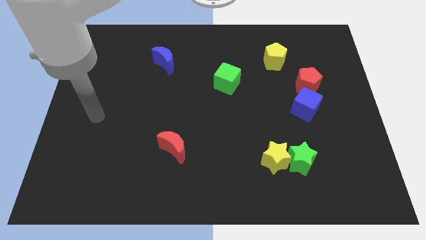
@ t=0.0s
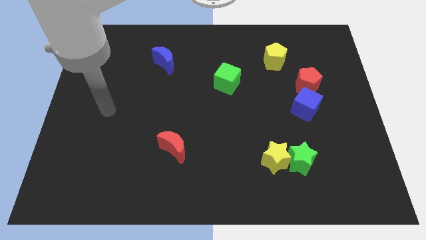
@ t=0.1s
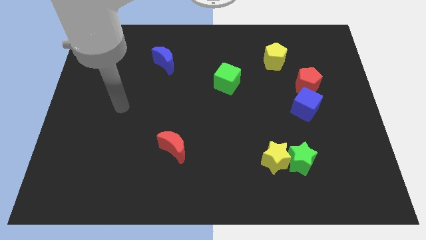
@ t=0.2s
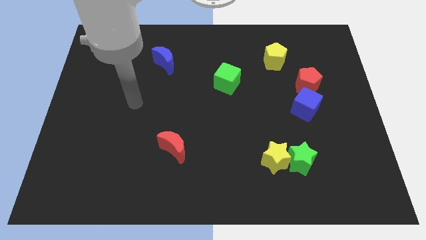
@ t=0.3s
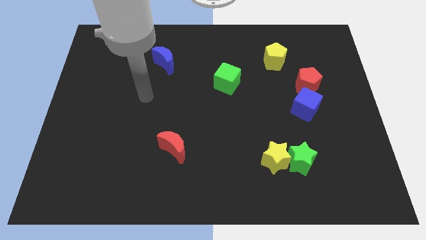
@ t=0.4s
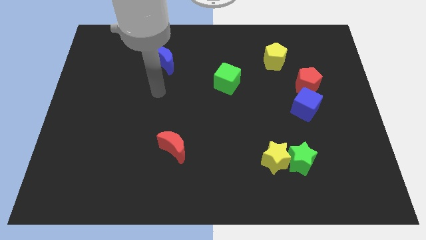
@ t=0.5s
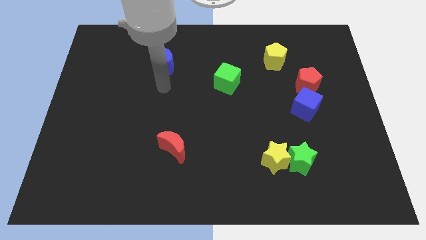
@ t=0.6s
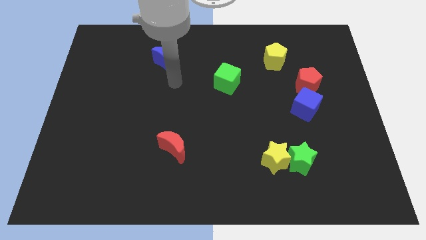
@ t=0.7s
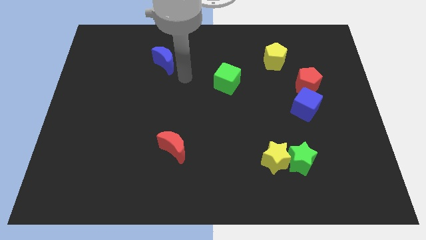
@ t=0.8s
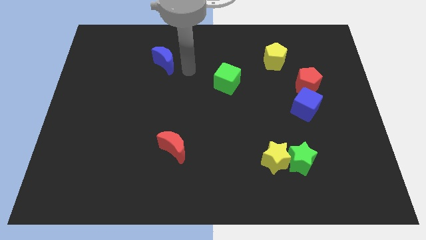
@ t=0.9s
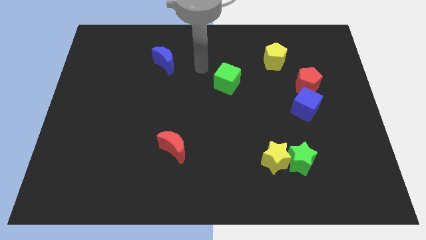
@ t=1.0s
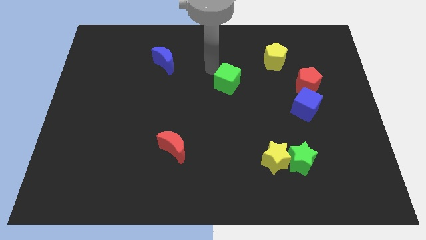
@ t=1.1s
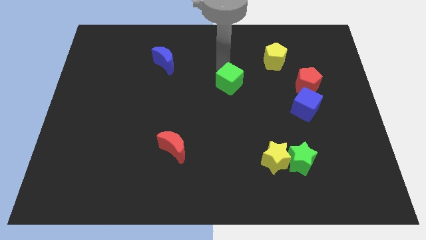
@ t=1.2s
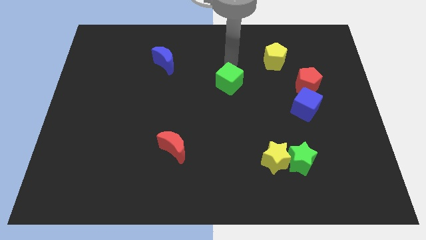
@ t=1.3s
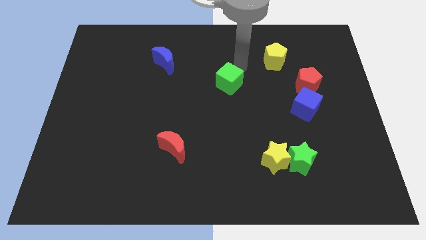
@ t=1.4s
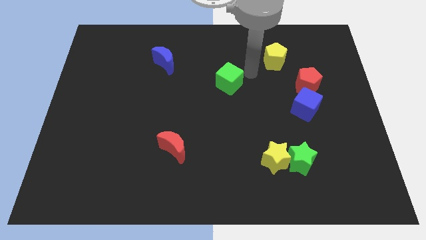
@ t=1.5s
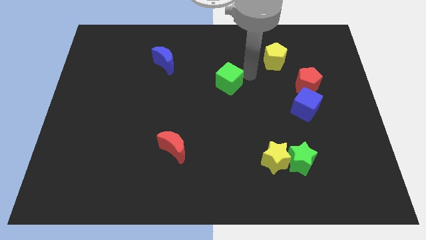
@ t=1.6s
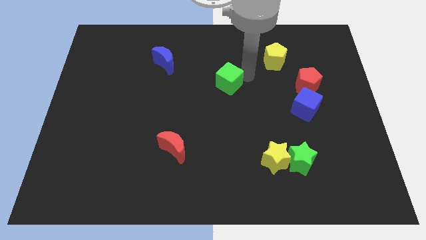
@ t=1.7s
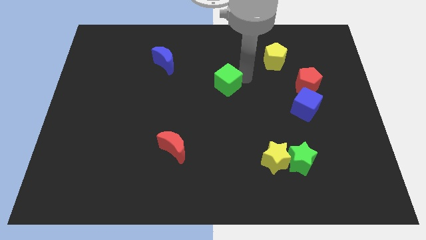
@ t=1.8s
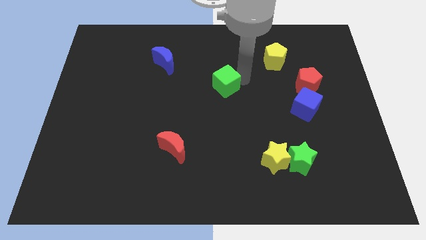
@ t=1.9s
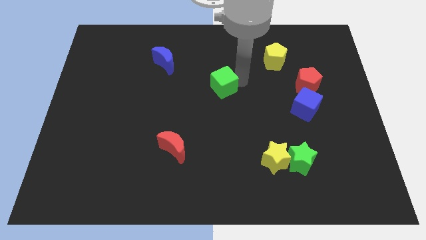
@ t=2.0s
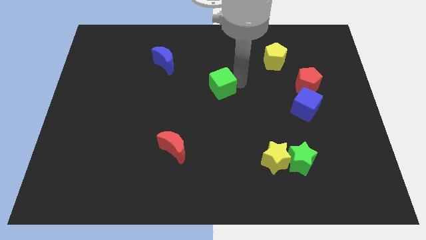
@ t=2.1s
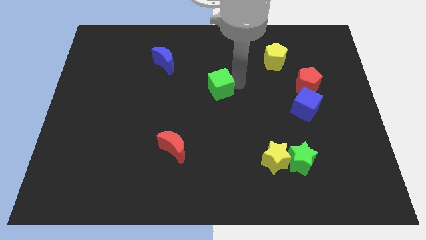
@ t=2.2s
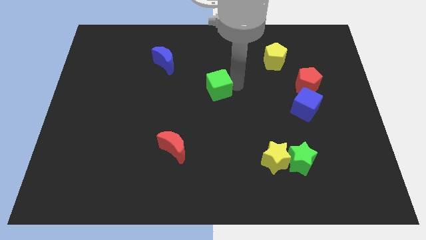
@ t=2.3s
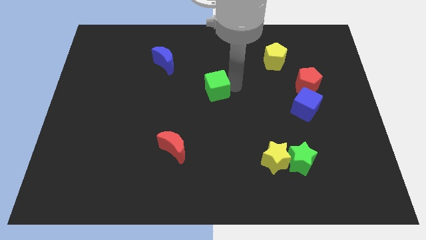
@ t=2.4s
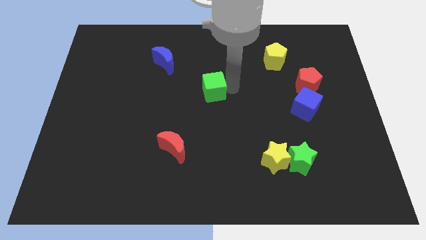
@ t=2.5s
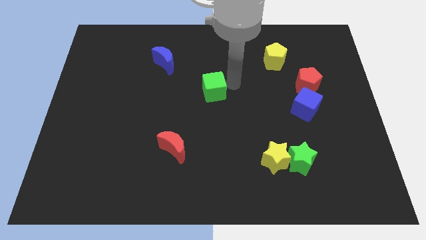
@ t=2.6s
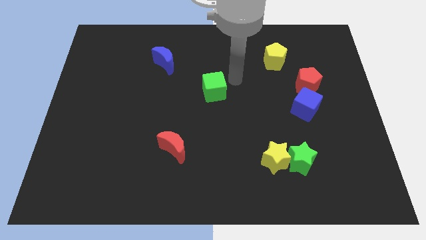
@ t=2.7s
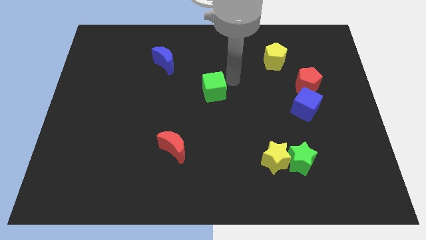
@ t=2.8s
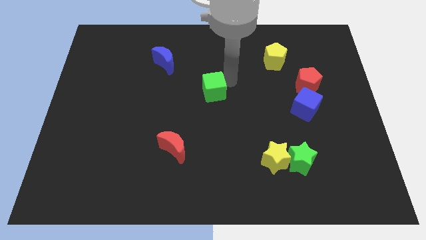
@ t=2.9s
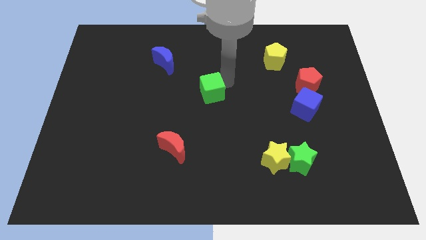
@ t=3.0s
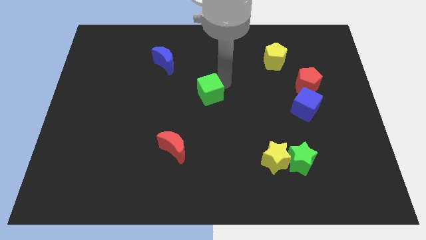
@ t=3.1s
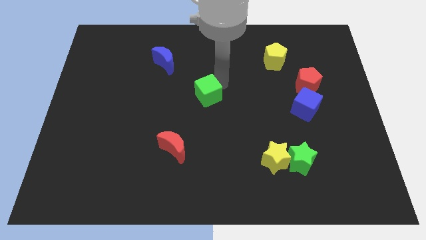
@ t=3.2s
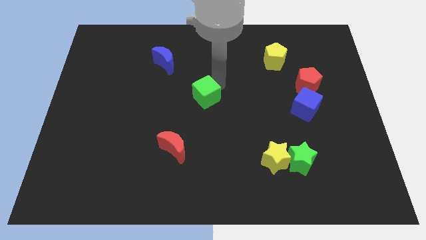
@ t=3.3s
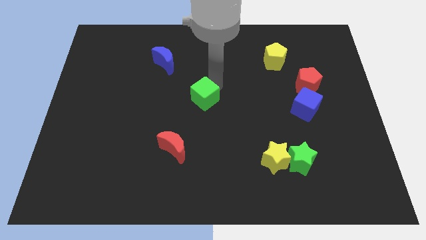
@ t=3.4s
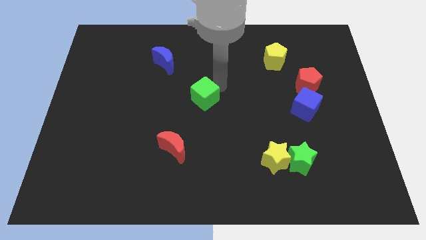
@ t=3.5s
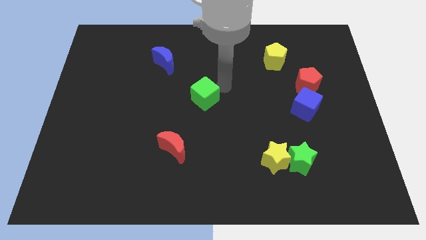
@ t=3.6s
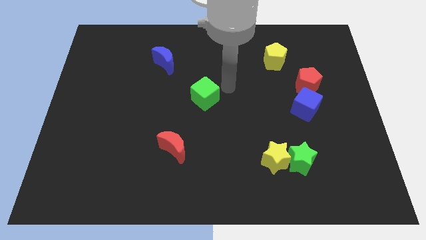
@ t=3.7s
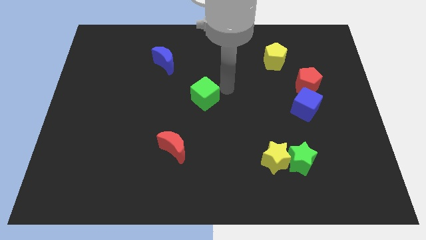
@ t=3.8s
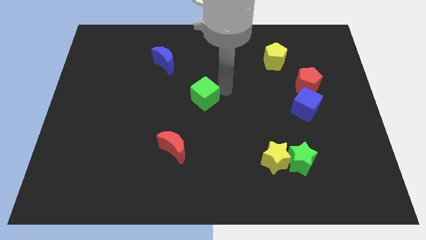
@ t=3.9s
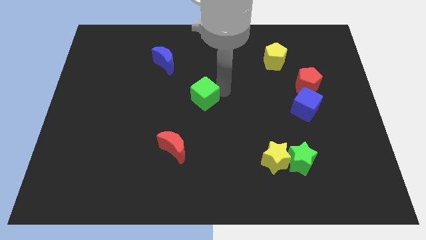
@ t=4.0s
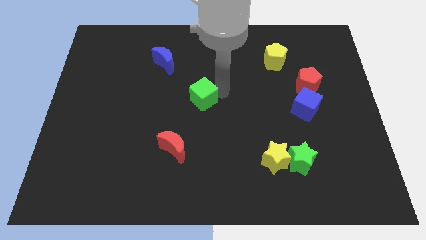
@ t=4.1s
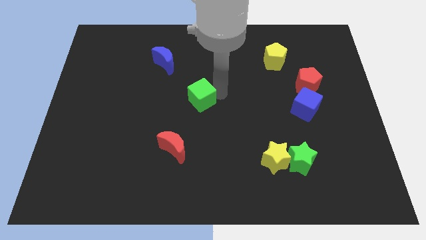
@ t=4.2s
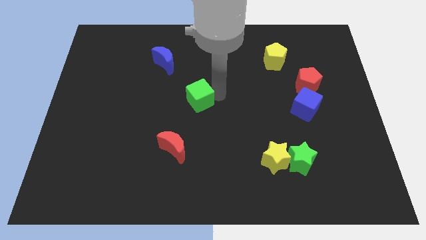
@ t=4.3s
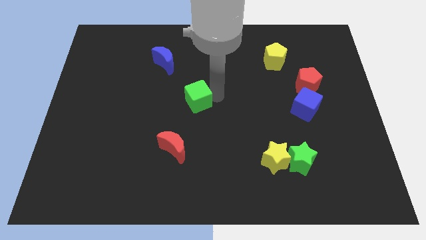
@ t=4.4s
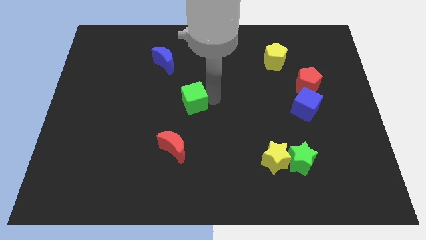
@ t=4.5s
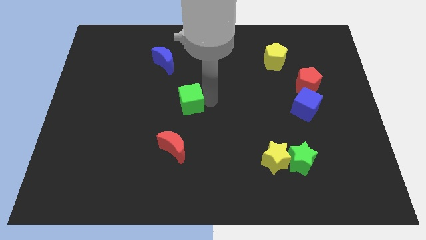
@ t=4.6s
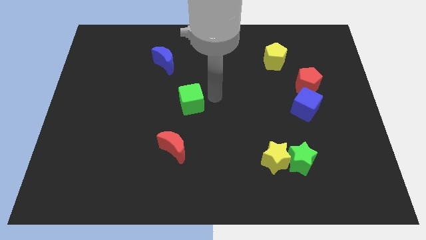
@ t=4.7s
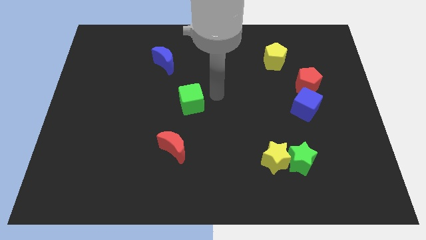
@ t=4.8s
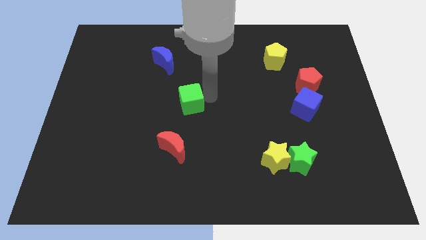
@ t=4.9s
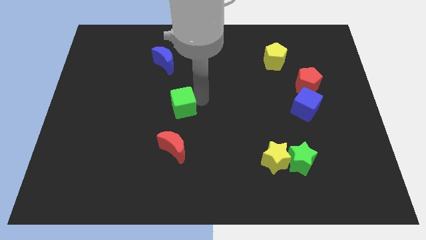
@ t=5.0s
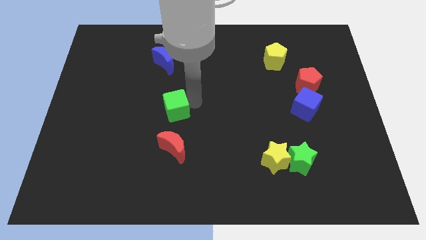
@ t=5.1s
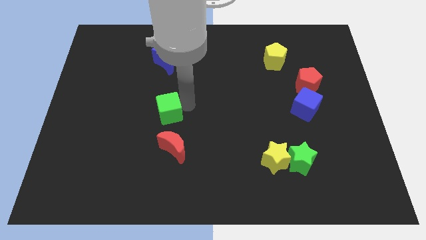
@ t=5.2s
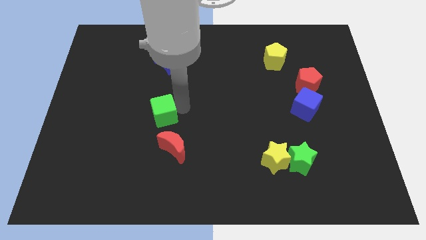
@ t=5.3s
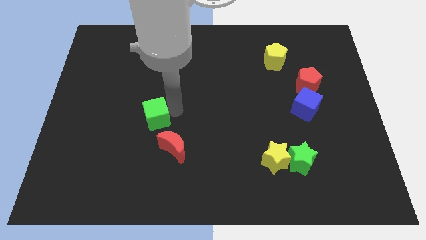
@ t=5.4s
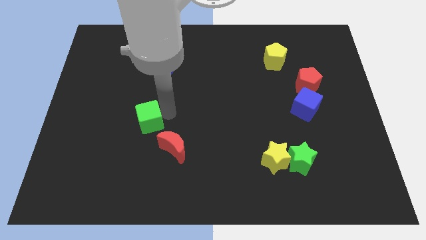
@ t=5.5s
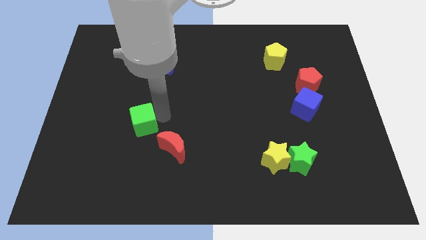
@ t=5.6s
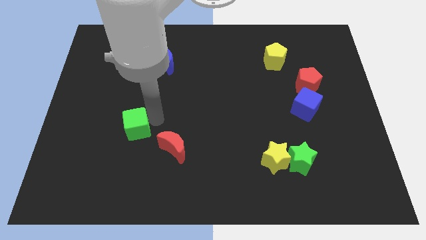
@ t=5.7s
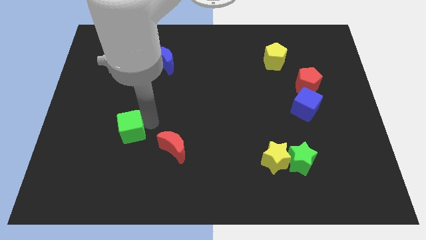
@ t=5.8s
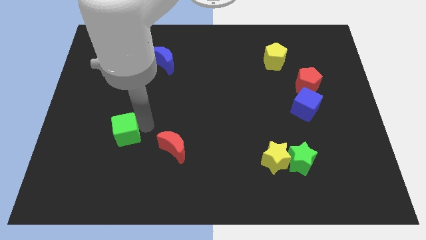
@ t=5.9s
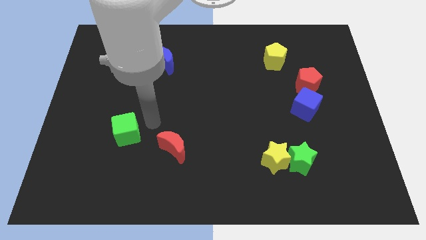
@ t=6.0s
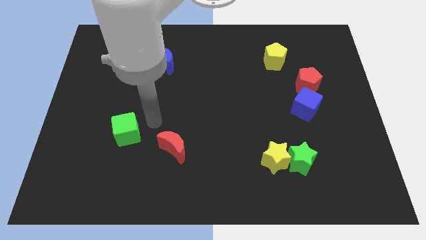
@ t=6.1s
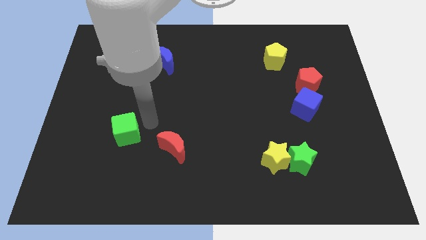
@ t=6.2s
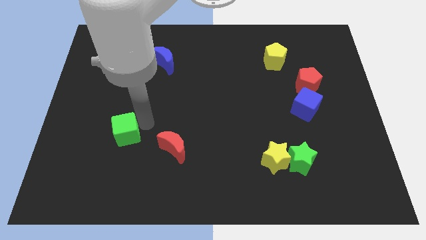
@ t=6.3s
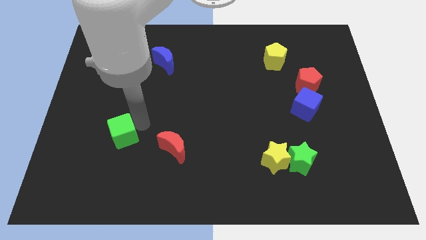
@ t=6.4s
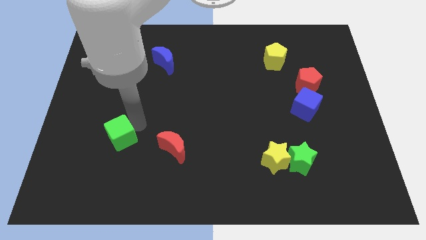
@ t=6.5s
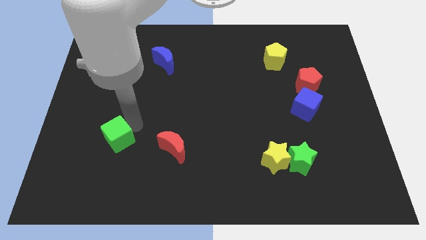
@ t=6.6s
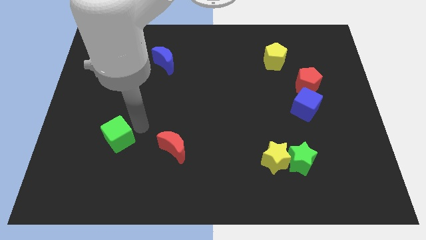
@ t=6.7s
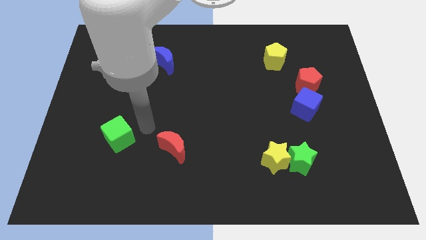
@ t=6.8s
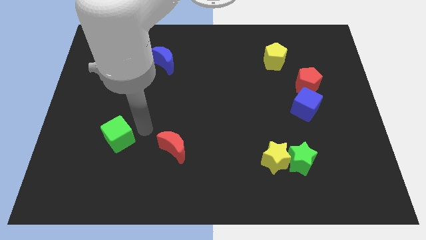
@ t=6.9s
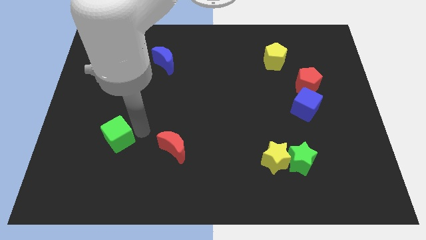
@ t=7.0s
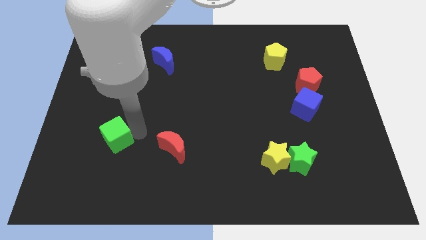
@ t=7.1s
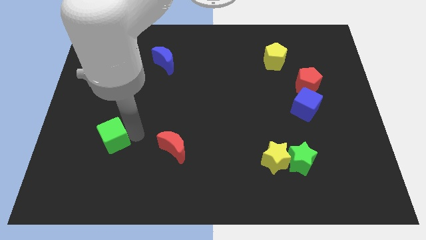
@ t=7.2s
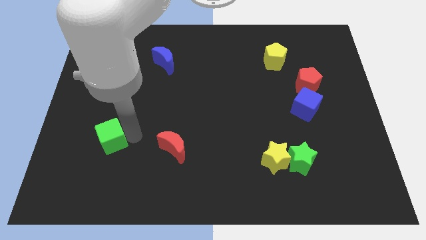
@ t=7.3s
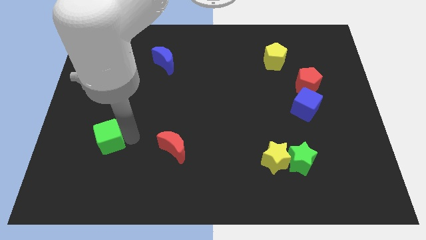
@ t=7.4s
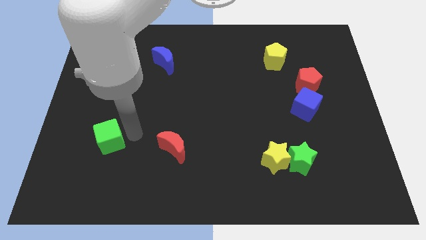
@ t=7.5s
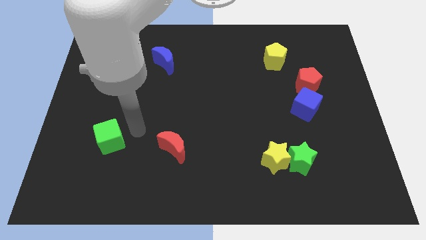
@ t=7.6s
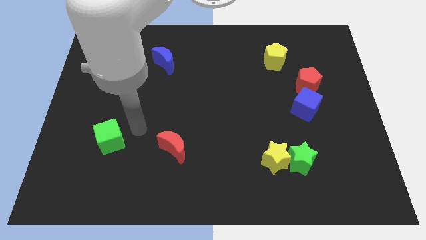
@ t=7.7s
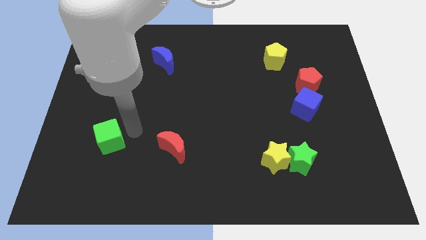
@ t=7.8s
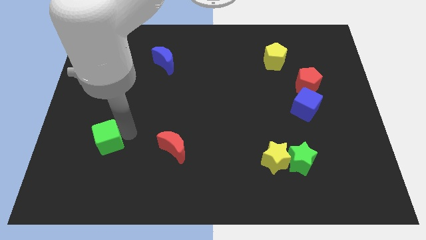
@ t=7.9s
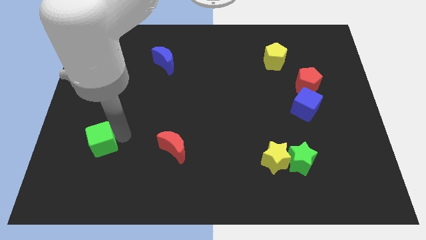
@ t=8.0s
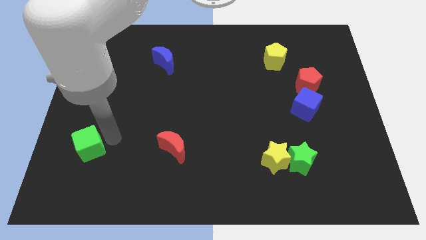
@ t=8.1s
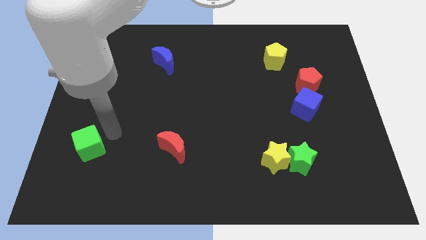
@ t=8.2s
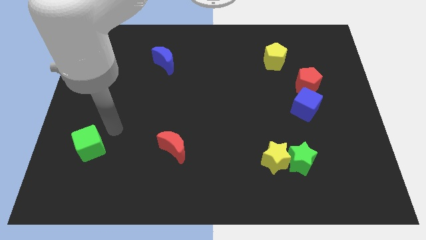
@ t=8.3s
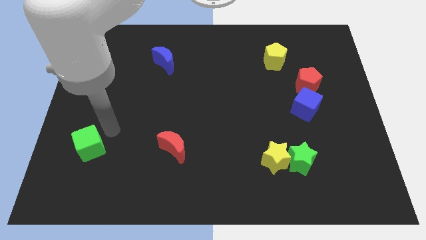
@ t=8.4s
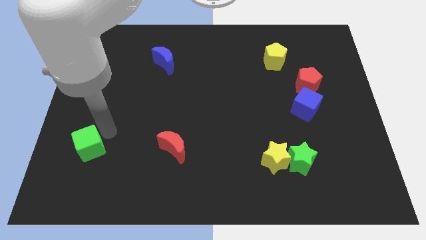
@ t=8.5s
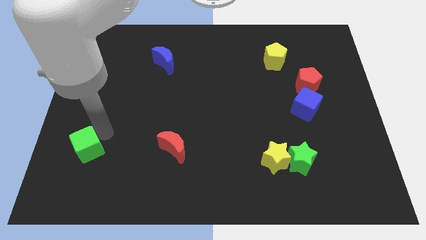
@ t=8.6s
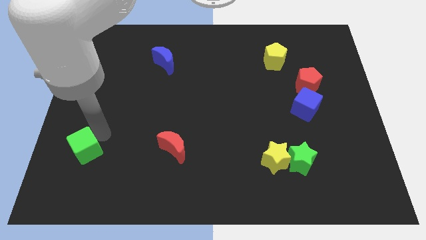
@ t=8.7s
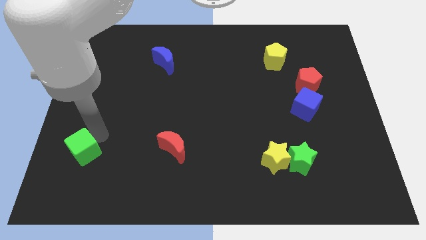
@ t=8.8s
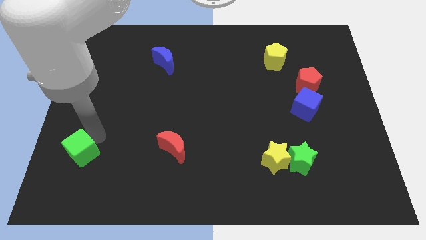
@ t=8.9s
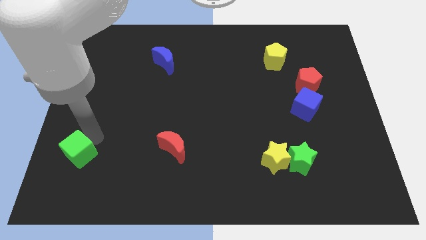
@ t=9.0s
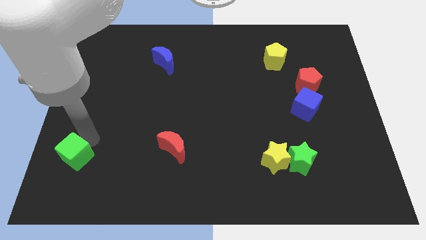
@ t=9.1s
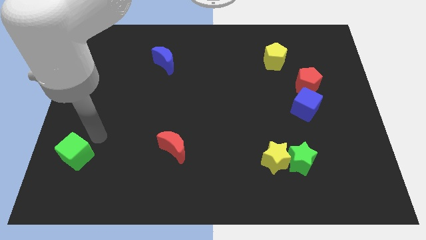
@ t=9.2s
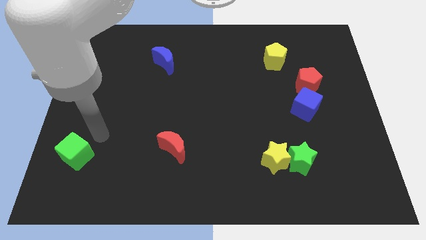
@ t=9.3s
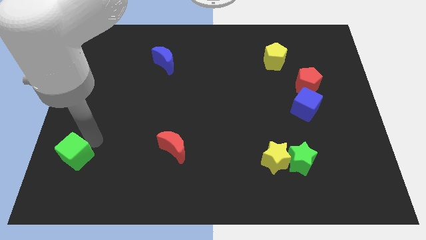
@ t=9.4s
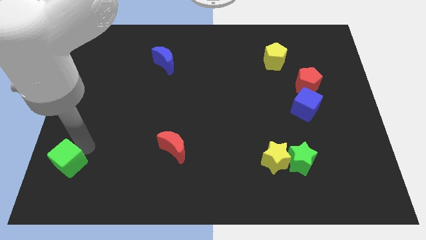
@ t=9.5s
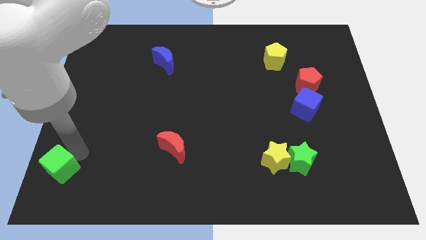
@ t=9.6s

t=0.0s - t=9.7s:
push the green cube to the bottom left of the board
